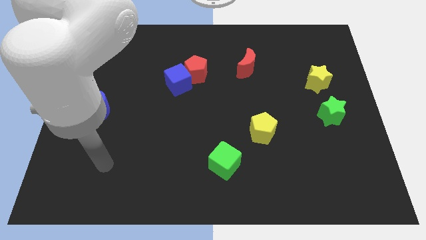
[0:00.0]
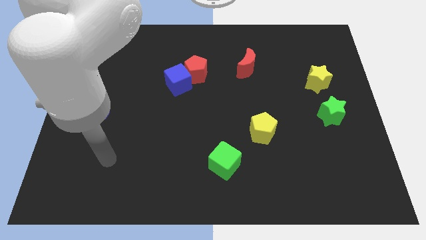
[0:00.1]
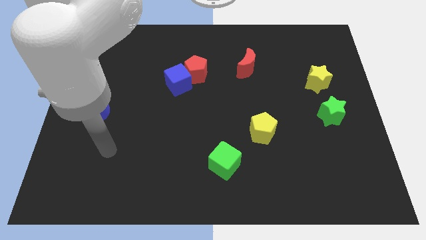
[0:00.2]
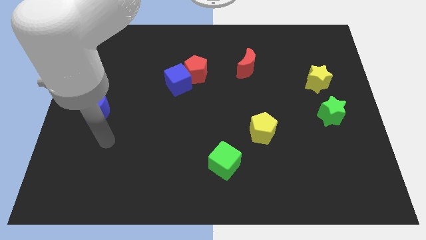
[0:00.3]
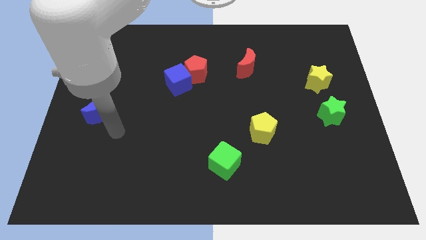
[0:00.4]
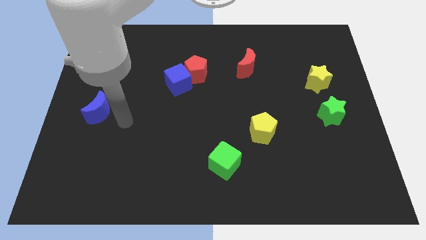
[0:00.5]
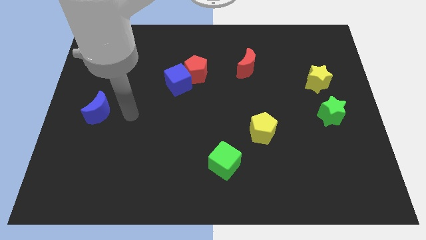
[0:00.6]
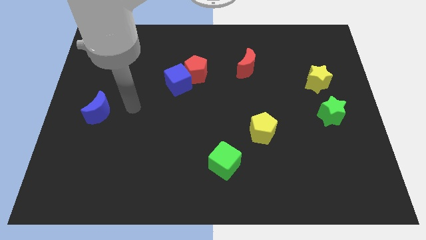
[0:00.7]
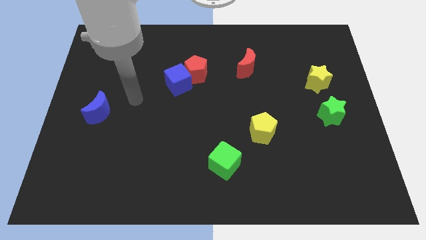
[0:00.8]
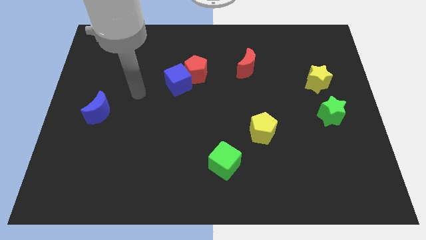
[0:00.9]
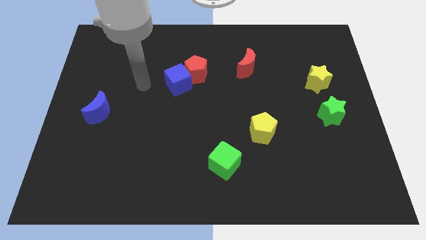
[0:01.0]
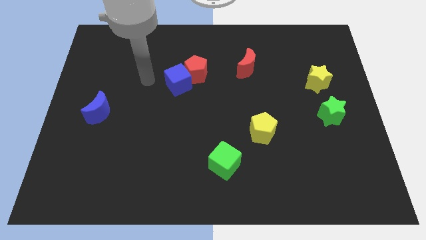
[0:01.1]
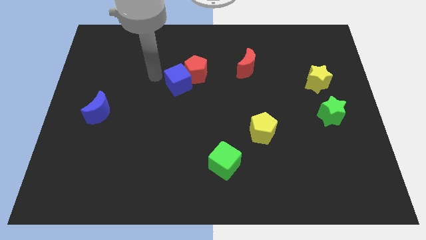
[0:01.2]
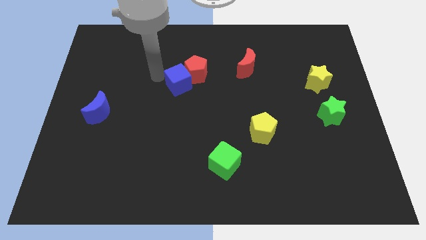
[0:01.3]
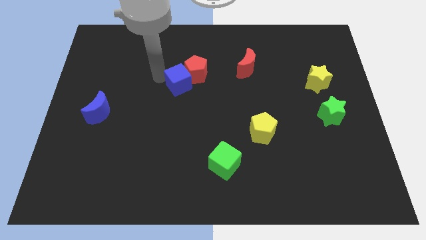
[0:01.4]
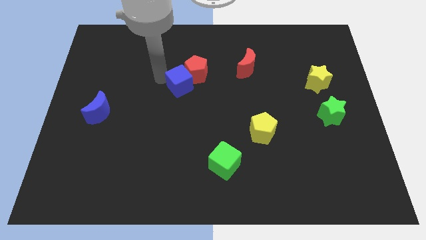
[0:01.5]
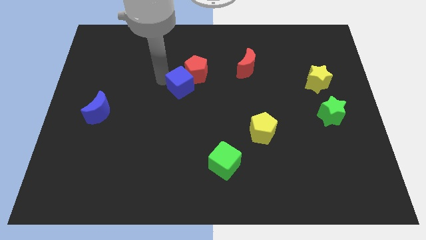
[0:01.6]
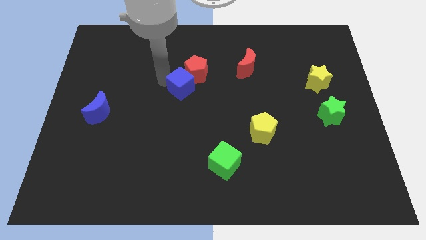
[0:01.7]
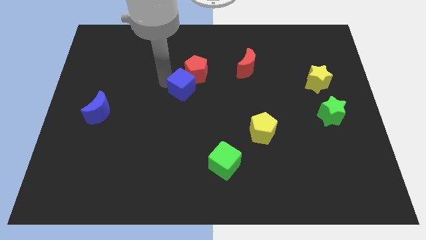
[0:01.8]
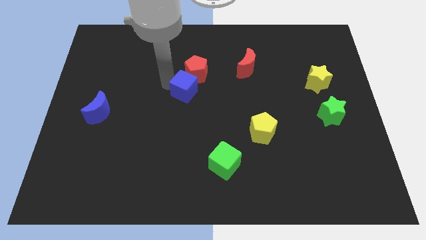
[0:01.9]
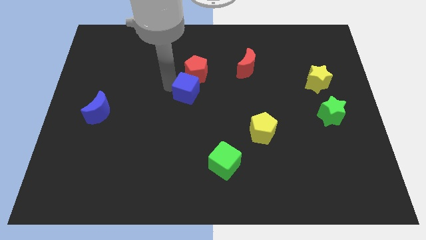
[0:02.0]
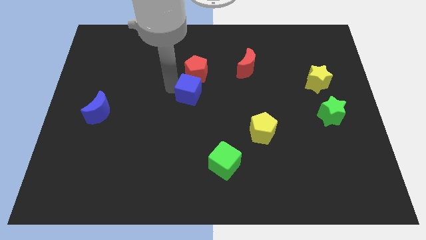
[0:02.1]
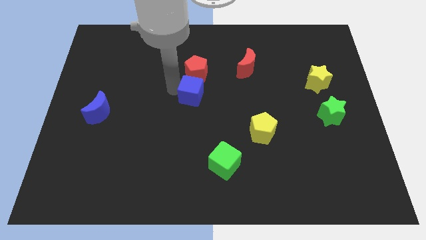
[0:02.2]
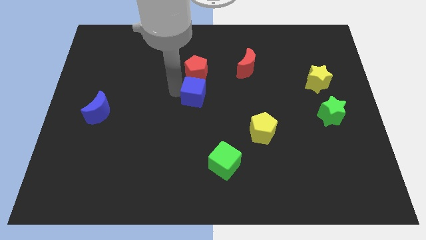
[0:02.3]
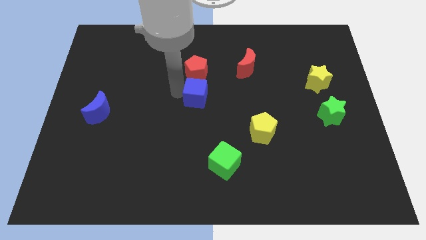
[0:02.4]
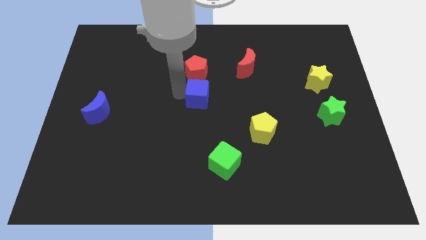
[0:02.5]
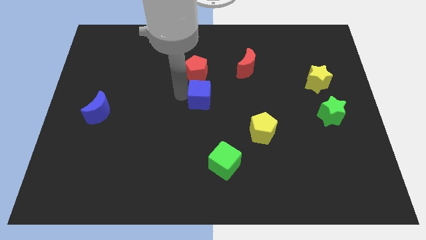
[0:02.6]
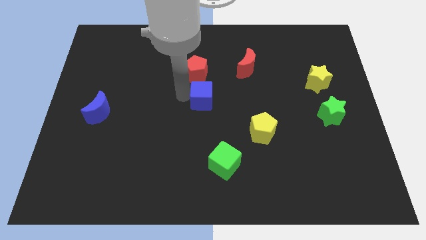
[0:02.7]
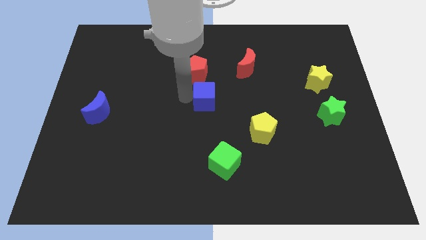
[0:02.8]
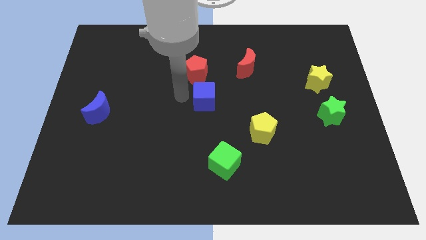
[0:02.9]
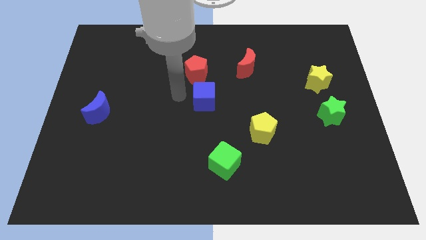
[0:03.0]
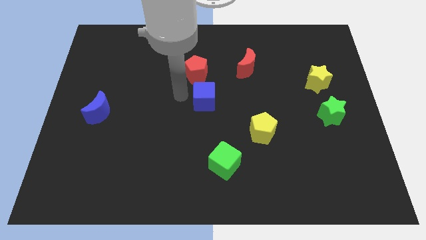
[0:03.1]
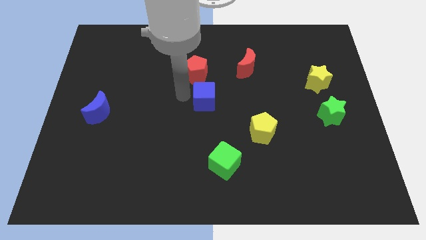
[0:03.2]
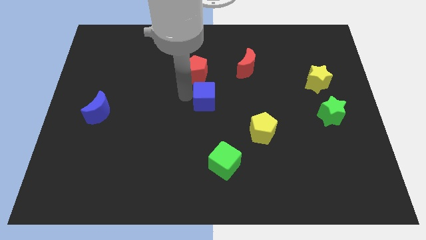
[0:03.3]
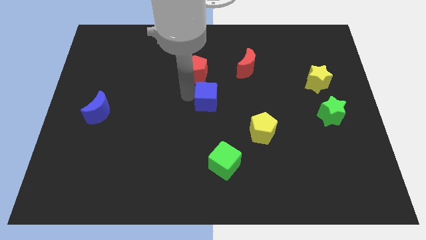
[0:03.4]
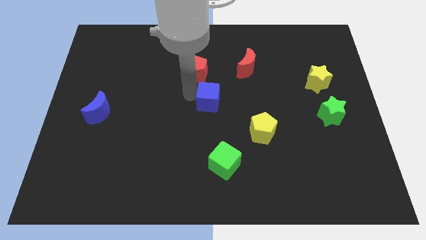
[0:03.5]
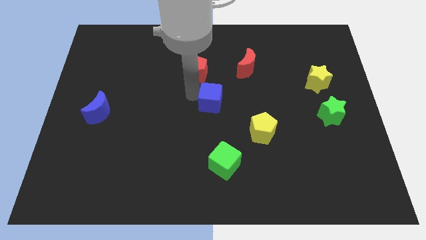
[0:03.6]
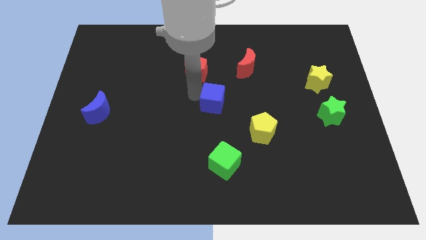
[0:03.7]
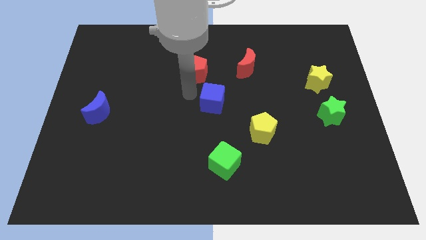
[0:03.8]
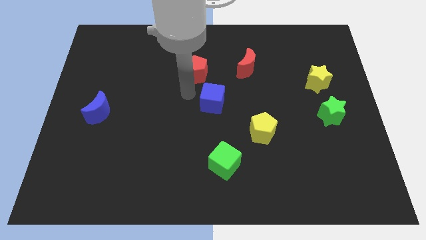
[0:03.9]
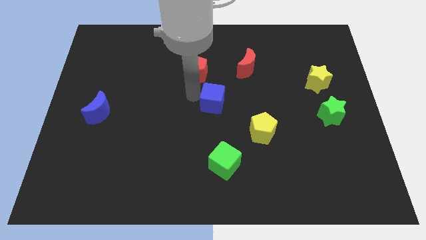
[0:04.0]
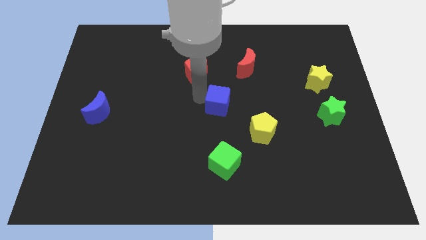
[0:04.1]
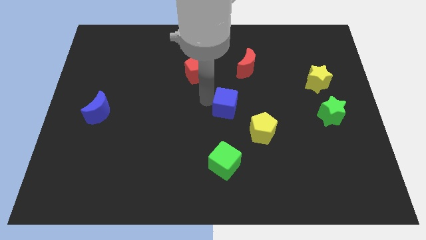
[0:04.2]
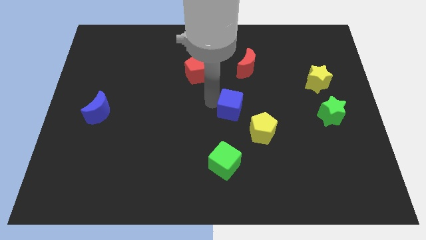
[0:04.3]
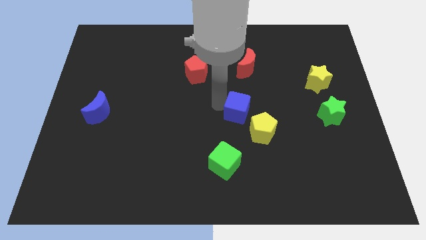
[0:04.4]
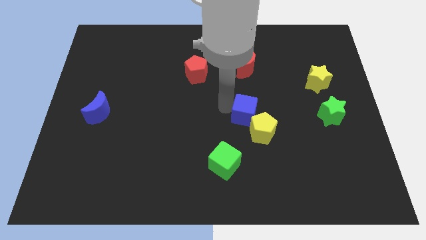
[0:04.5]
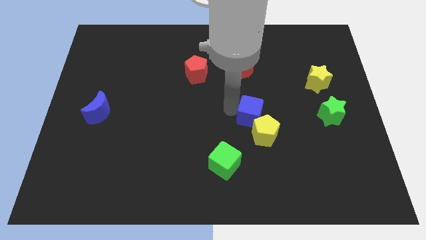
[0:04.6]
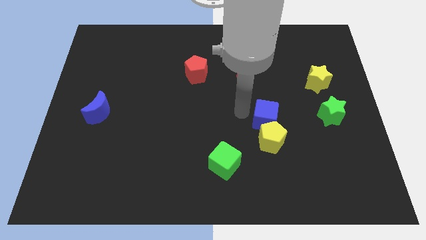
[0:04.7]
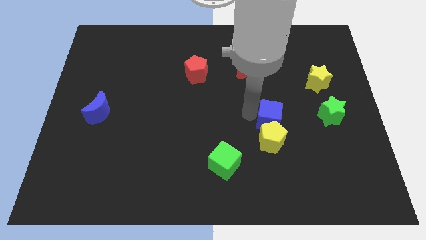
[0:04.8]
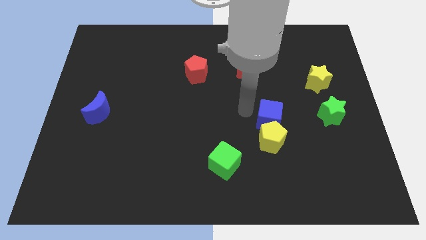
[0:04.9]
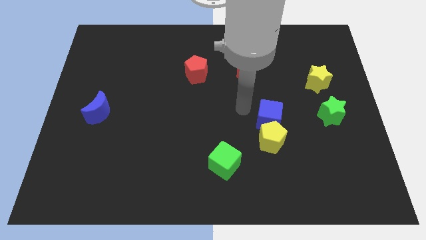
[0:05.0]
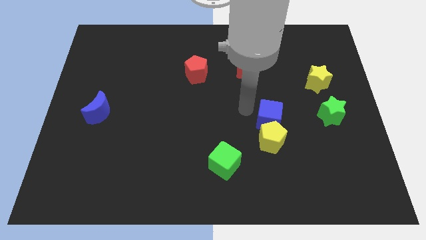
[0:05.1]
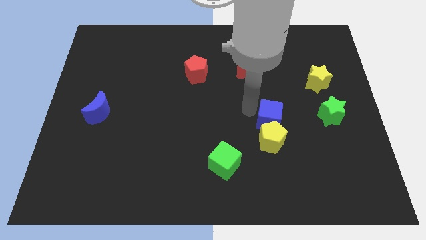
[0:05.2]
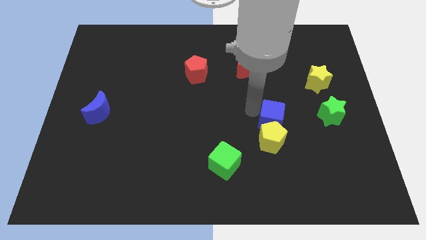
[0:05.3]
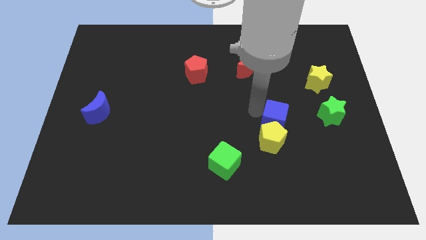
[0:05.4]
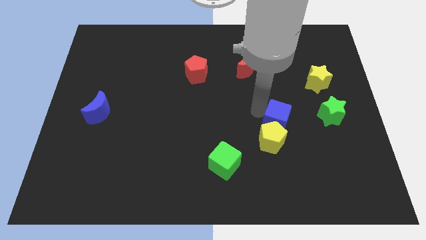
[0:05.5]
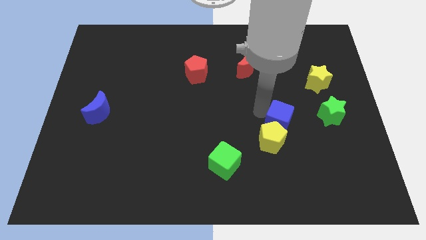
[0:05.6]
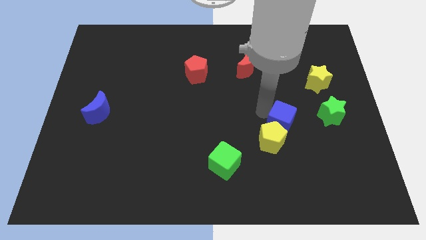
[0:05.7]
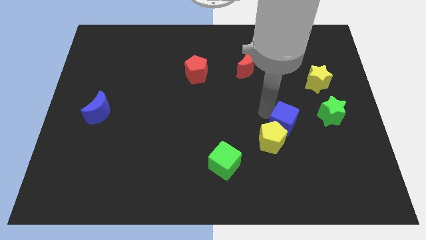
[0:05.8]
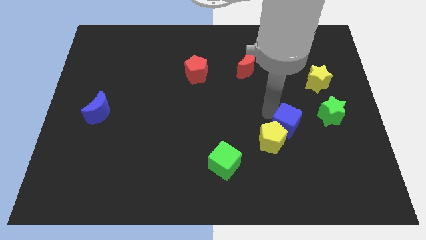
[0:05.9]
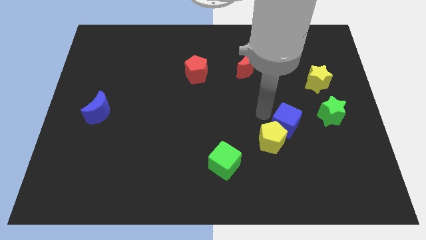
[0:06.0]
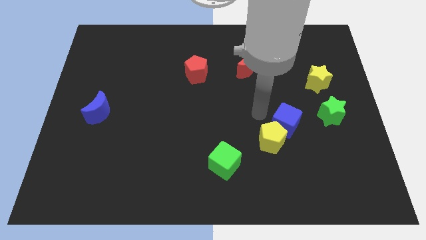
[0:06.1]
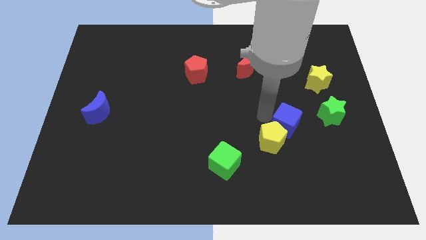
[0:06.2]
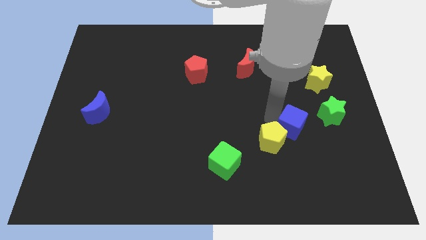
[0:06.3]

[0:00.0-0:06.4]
put the blue cube diagonally down and to the left of the green star

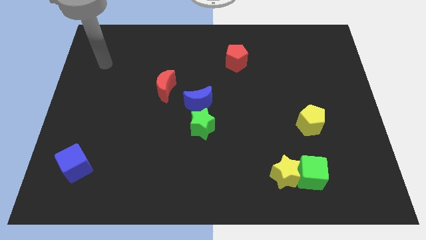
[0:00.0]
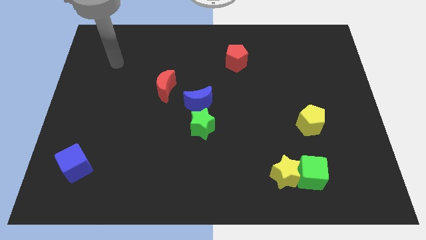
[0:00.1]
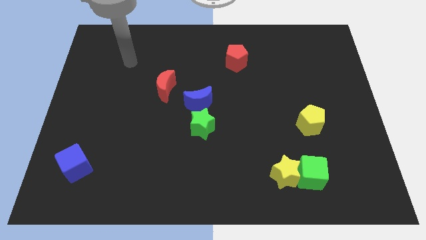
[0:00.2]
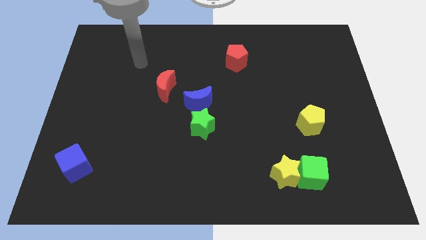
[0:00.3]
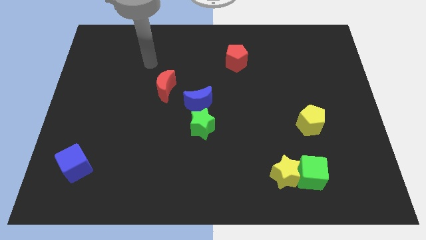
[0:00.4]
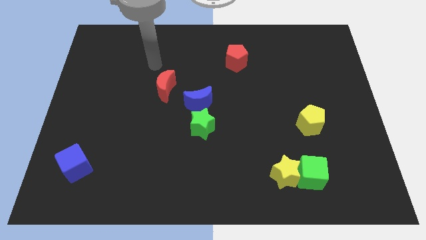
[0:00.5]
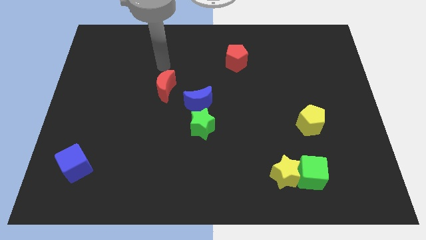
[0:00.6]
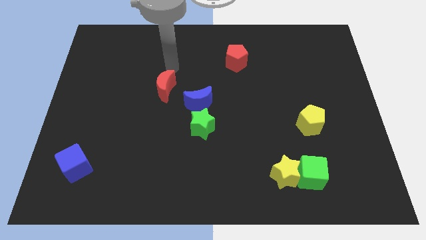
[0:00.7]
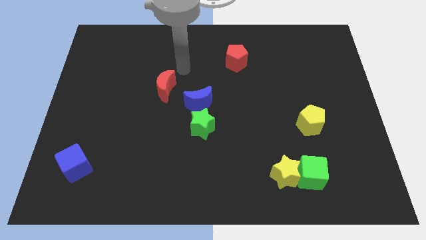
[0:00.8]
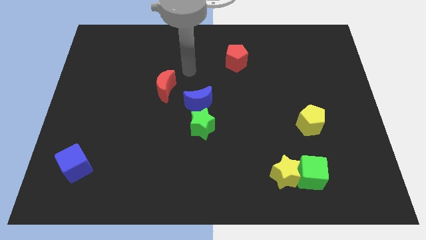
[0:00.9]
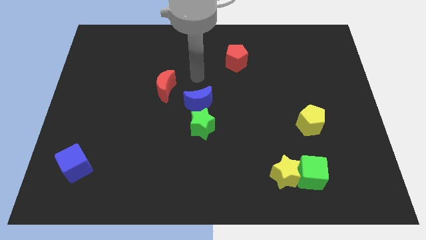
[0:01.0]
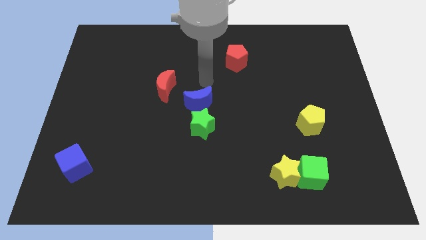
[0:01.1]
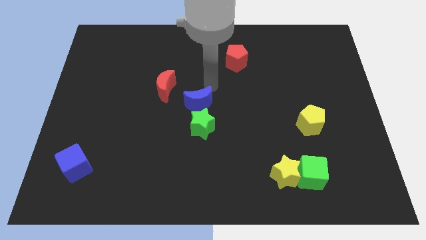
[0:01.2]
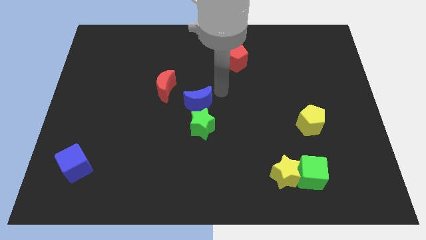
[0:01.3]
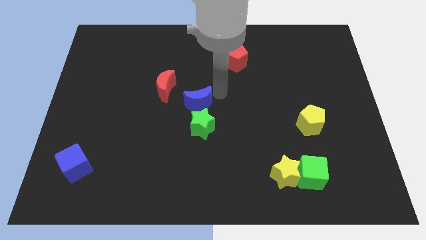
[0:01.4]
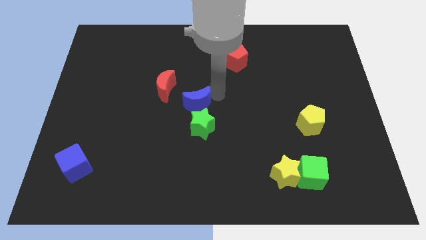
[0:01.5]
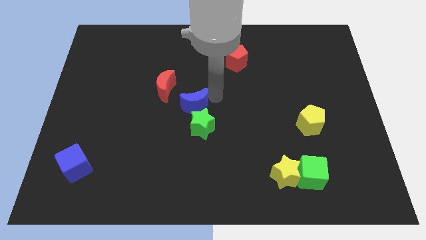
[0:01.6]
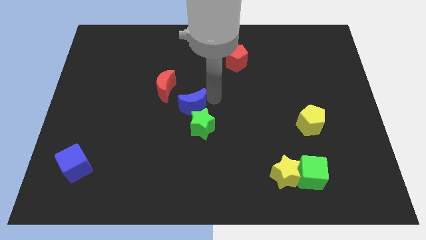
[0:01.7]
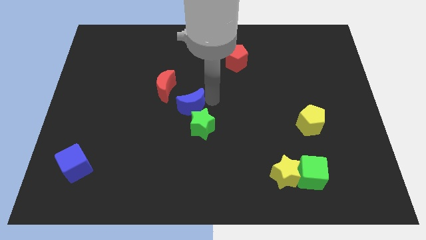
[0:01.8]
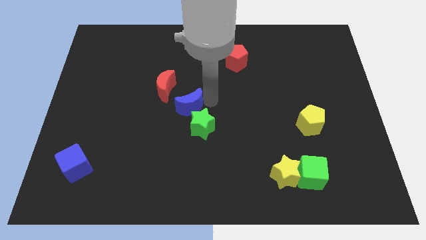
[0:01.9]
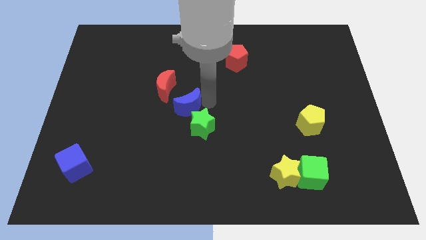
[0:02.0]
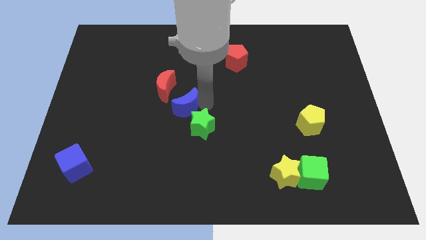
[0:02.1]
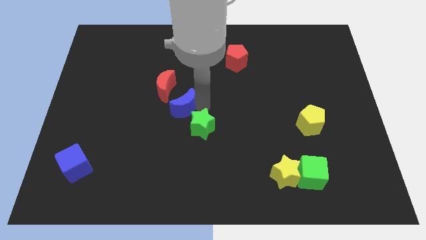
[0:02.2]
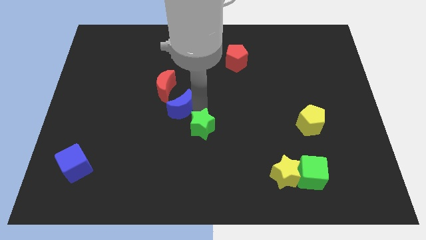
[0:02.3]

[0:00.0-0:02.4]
slide the blue moon just left of the green star
